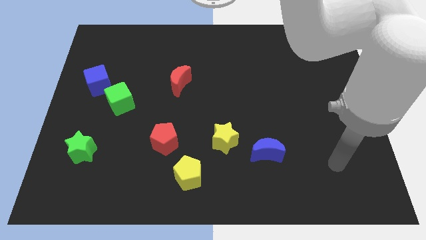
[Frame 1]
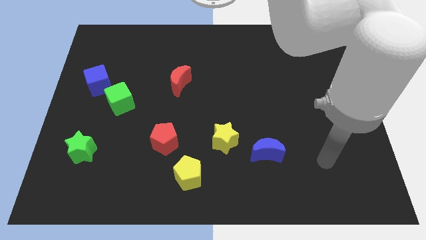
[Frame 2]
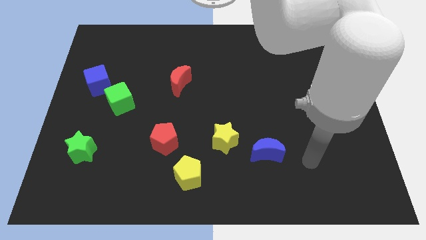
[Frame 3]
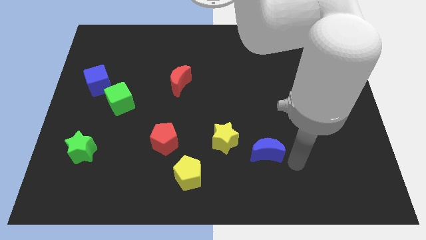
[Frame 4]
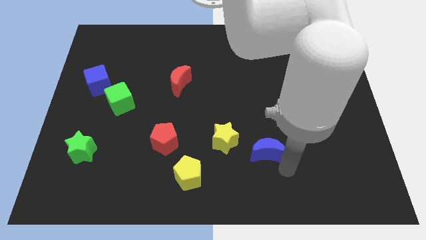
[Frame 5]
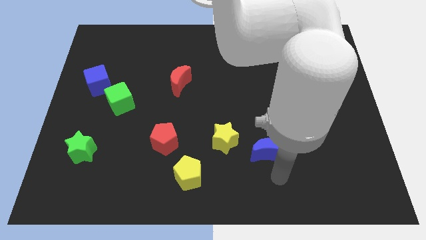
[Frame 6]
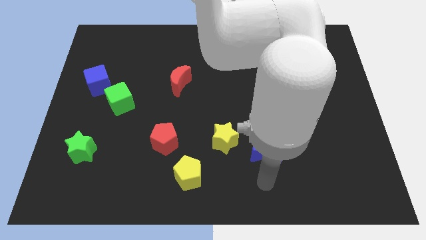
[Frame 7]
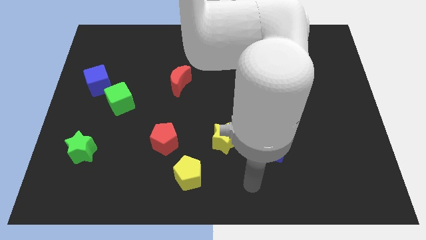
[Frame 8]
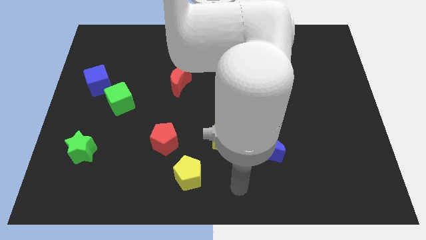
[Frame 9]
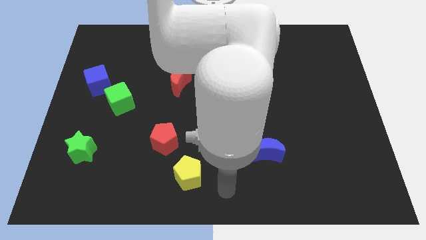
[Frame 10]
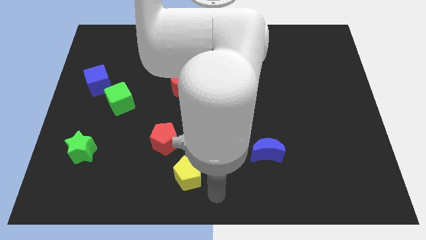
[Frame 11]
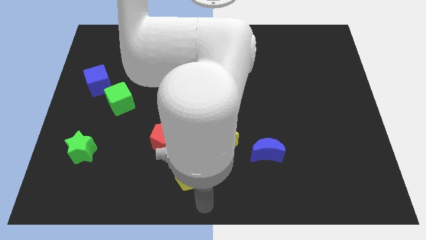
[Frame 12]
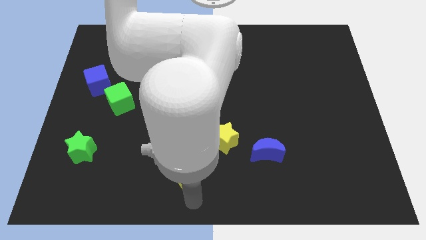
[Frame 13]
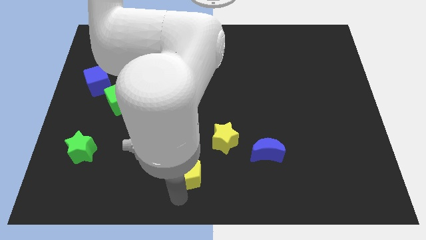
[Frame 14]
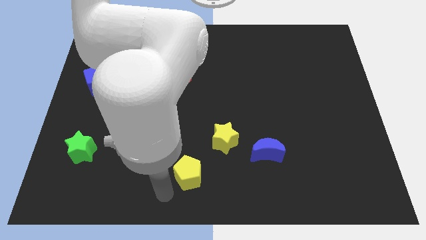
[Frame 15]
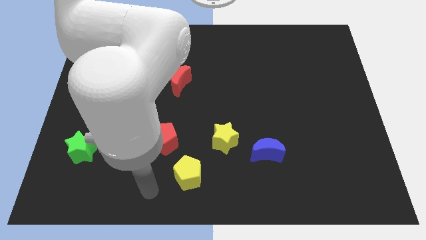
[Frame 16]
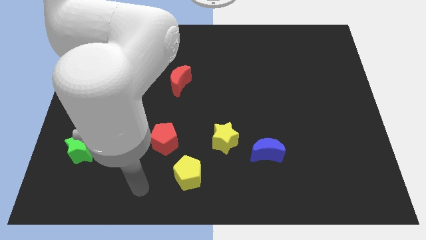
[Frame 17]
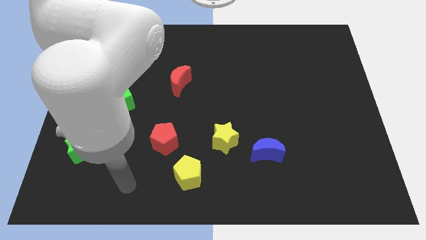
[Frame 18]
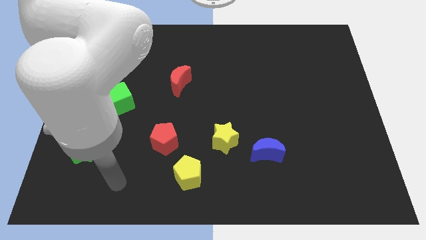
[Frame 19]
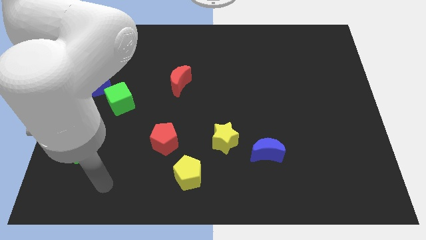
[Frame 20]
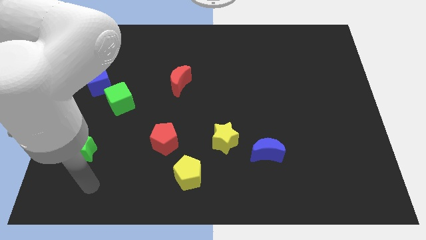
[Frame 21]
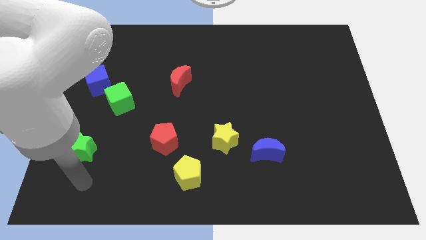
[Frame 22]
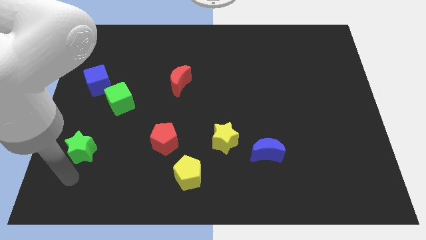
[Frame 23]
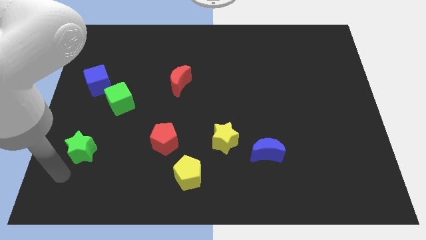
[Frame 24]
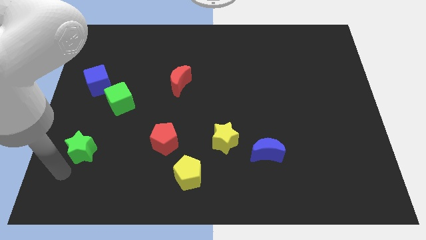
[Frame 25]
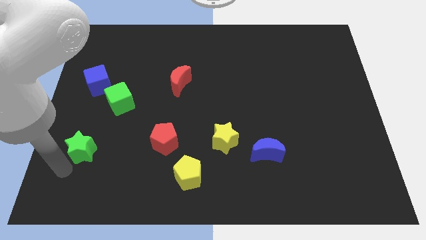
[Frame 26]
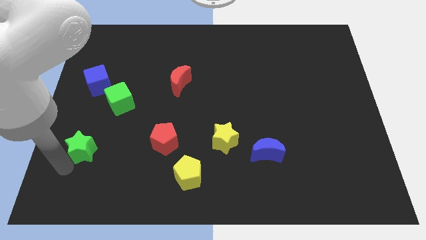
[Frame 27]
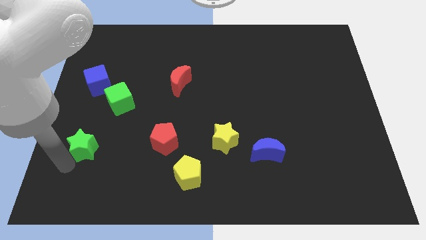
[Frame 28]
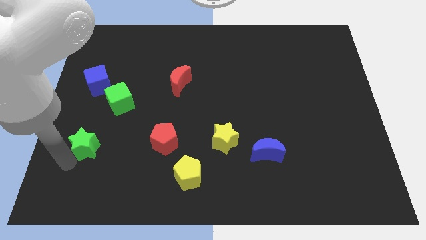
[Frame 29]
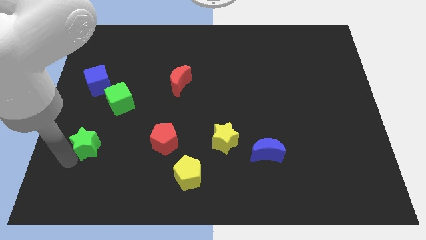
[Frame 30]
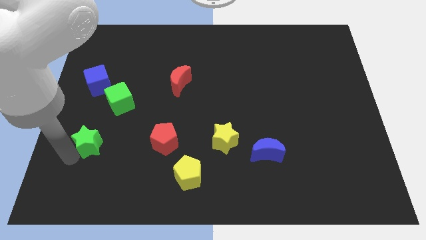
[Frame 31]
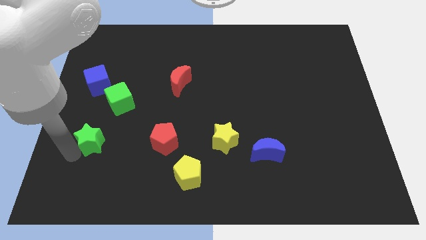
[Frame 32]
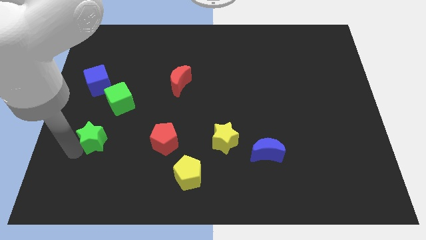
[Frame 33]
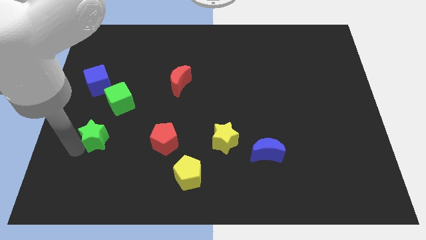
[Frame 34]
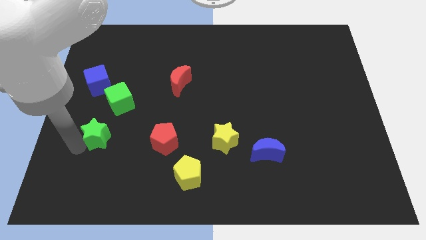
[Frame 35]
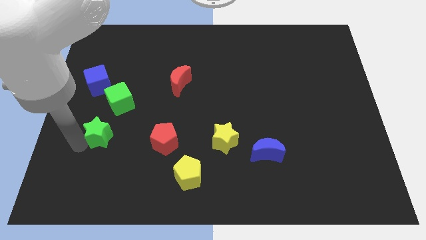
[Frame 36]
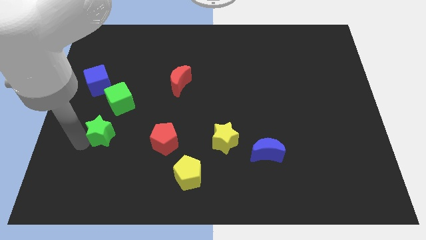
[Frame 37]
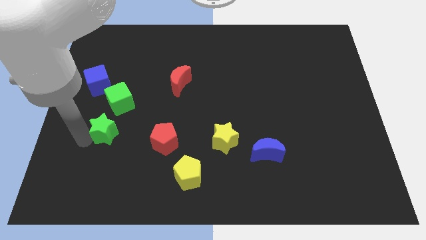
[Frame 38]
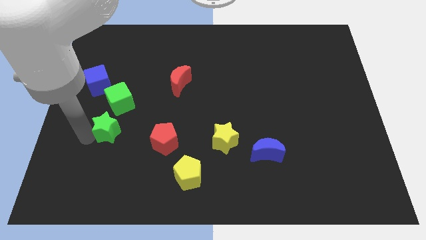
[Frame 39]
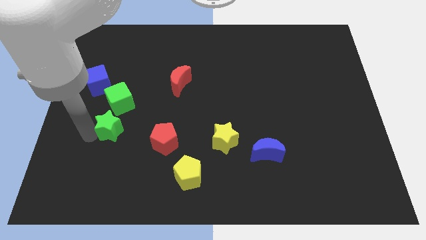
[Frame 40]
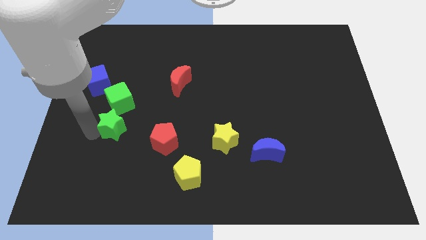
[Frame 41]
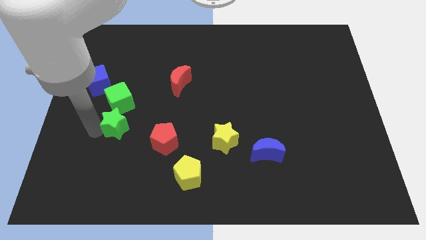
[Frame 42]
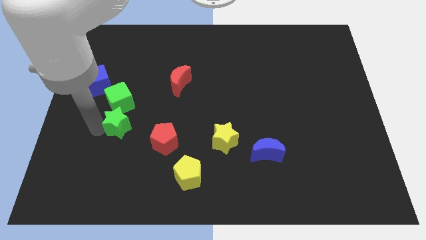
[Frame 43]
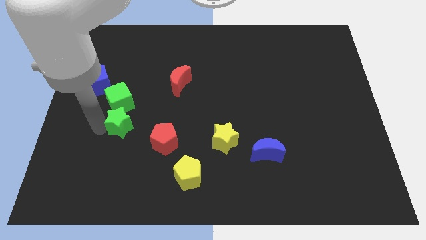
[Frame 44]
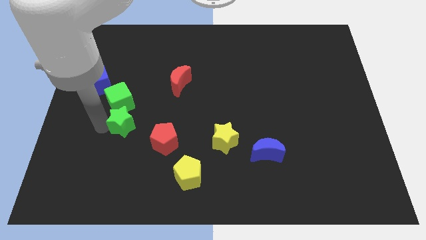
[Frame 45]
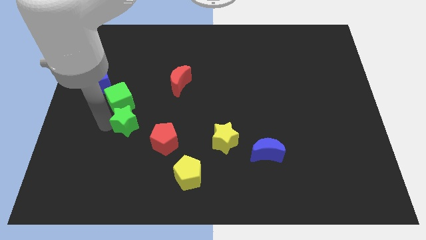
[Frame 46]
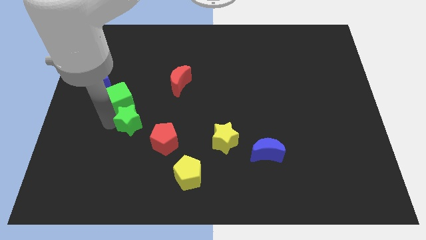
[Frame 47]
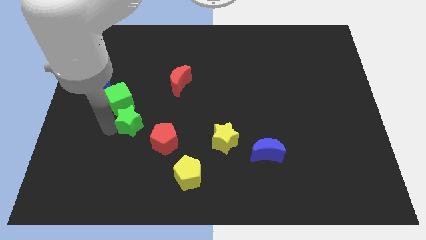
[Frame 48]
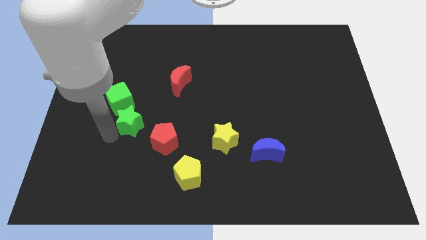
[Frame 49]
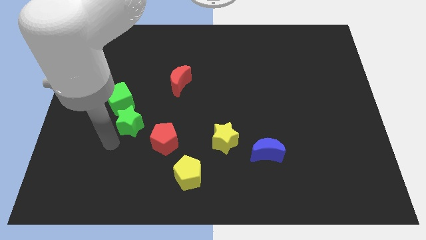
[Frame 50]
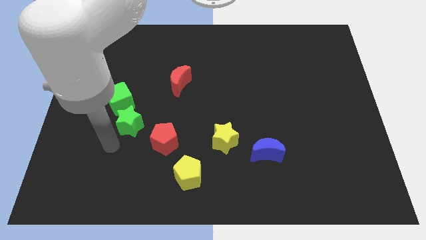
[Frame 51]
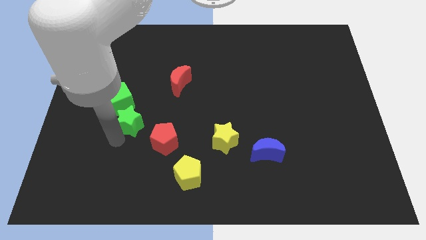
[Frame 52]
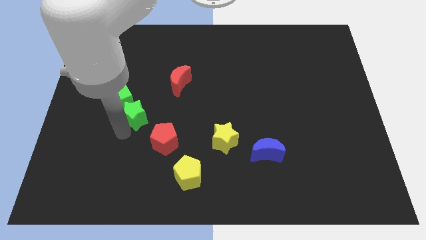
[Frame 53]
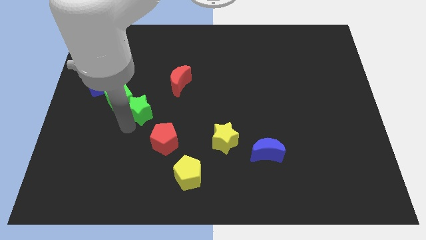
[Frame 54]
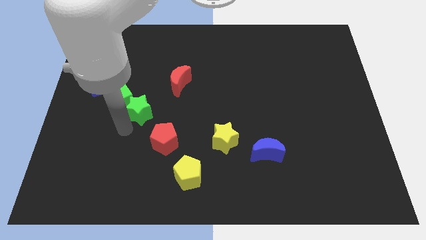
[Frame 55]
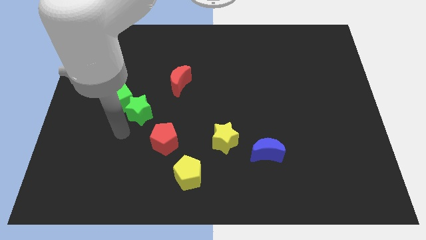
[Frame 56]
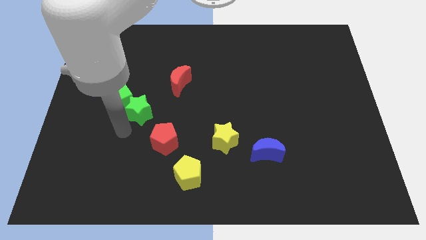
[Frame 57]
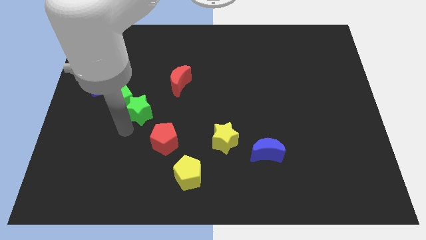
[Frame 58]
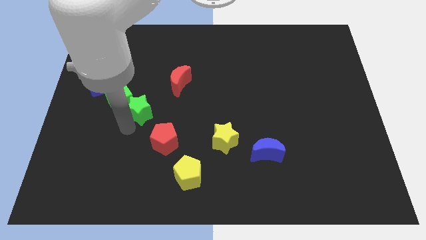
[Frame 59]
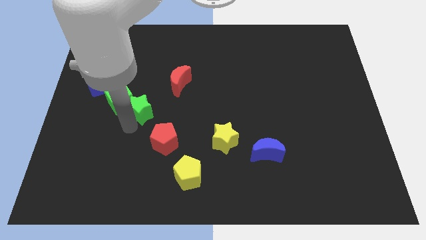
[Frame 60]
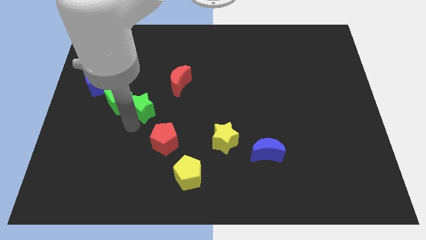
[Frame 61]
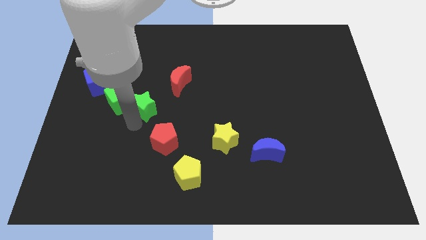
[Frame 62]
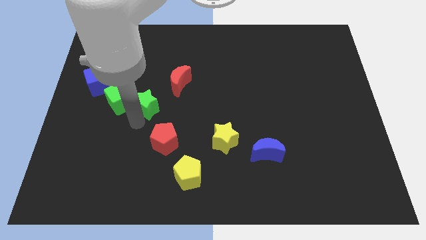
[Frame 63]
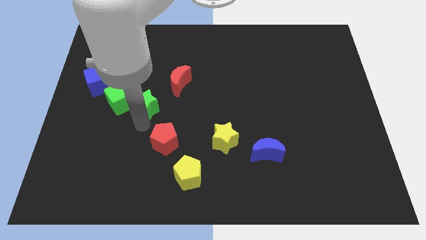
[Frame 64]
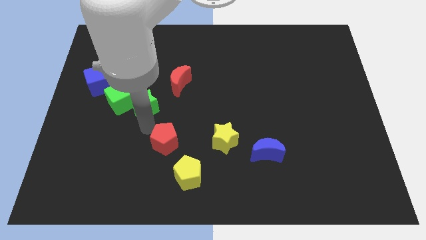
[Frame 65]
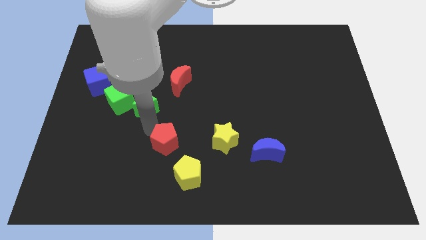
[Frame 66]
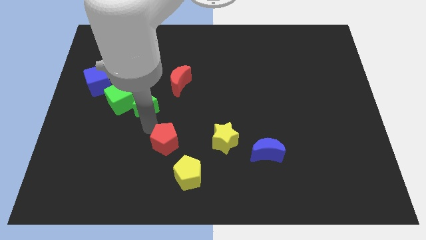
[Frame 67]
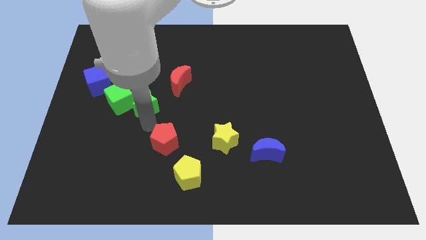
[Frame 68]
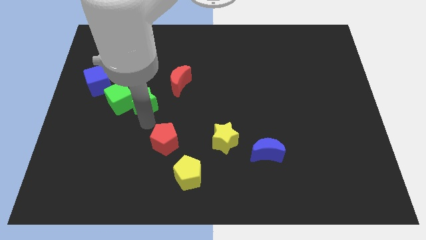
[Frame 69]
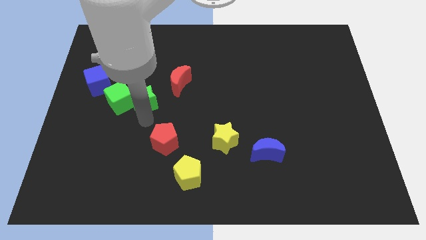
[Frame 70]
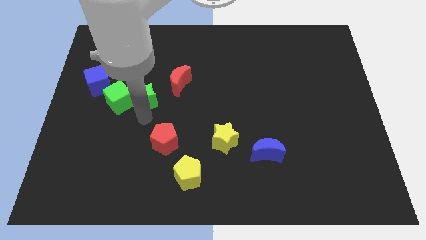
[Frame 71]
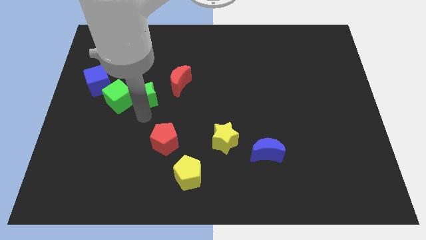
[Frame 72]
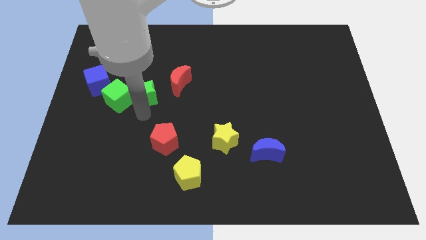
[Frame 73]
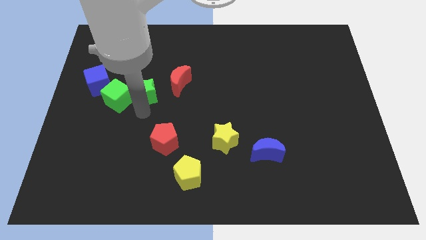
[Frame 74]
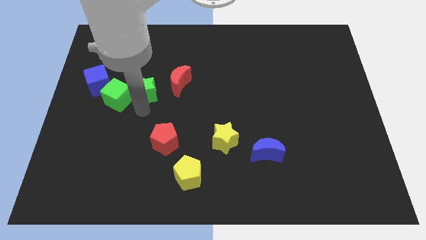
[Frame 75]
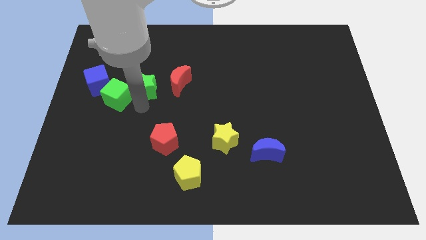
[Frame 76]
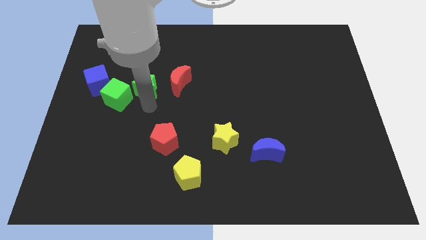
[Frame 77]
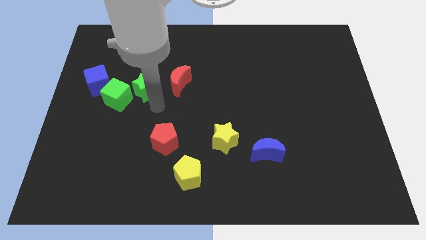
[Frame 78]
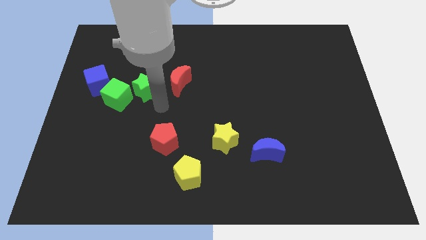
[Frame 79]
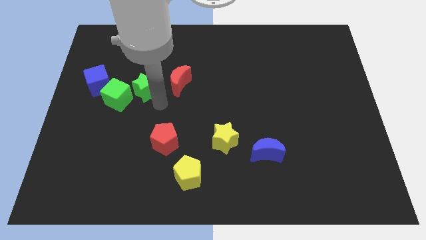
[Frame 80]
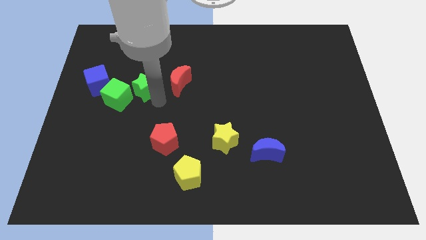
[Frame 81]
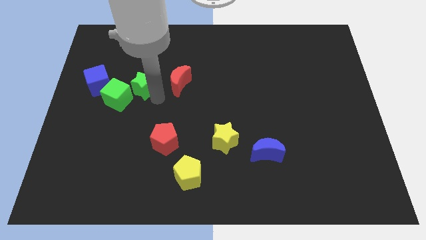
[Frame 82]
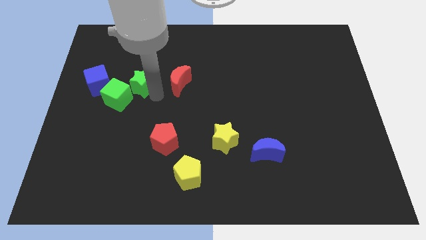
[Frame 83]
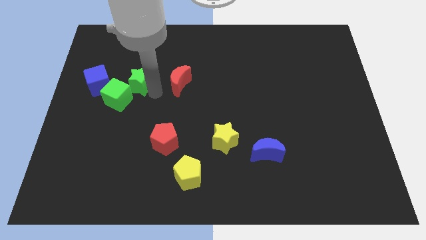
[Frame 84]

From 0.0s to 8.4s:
slide the green star to the top of the green cube
